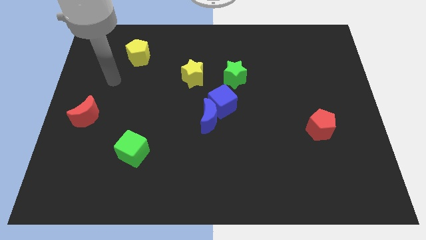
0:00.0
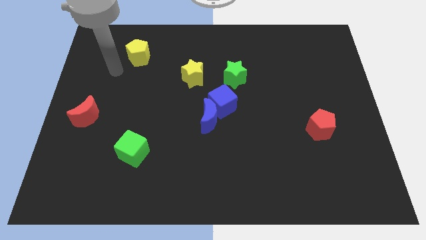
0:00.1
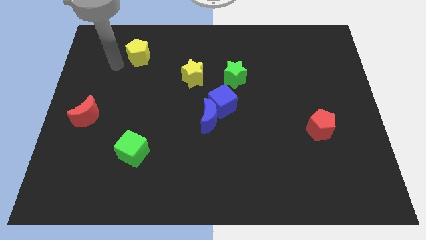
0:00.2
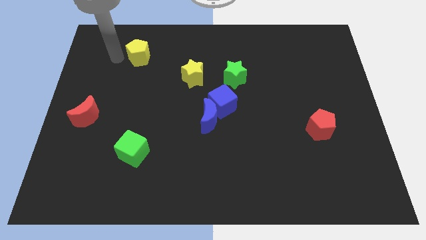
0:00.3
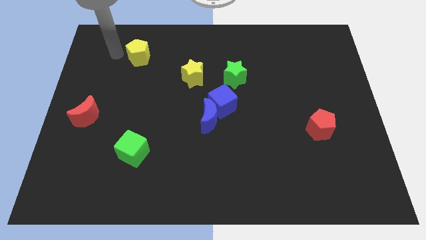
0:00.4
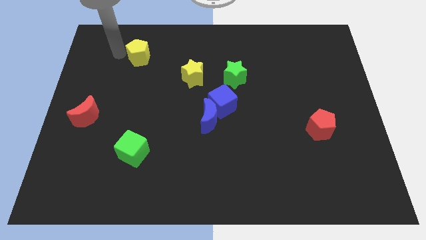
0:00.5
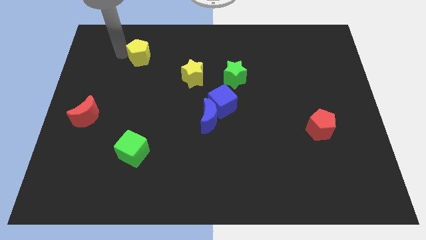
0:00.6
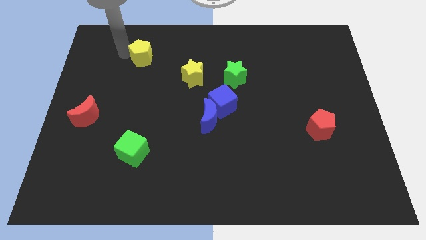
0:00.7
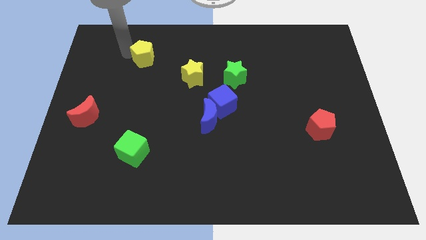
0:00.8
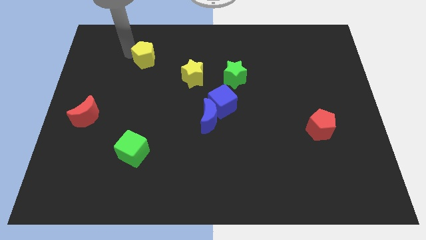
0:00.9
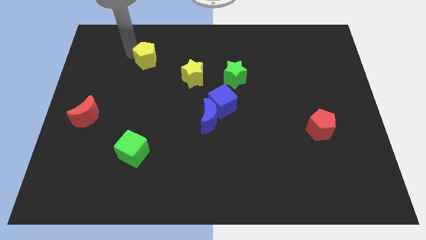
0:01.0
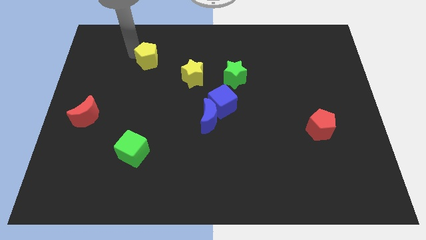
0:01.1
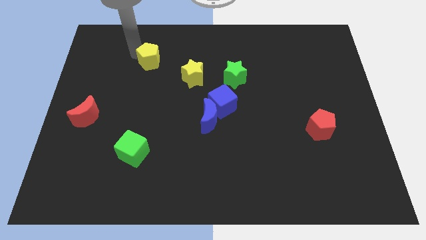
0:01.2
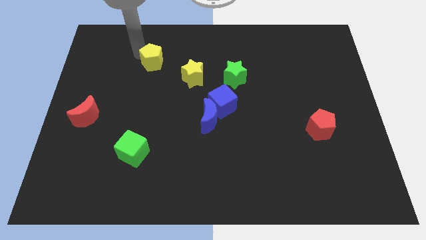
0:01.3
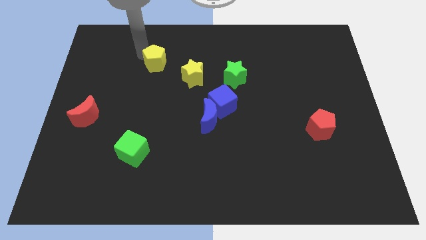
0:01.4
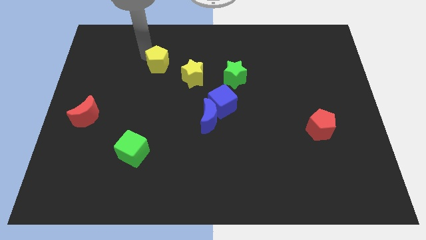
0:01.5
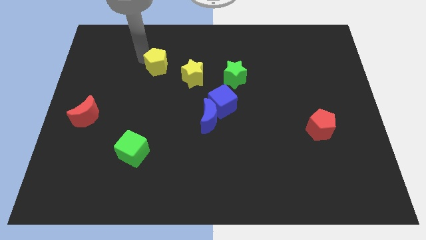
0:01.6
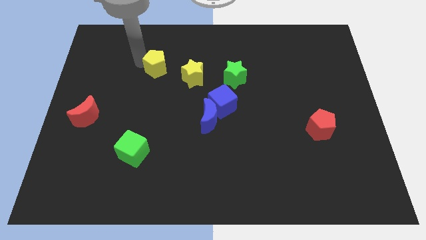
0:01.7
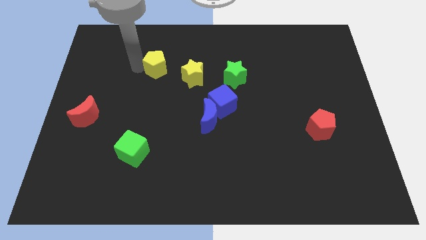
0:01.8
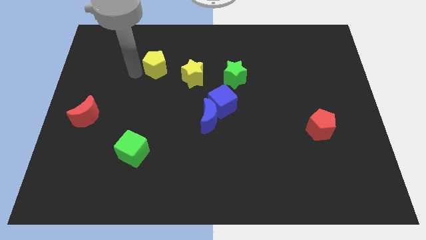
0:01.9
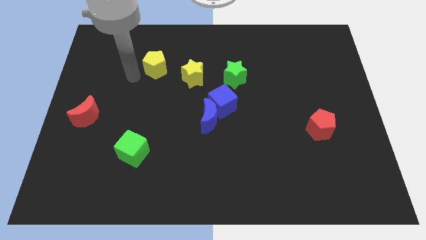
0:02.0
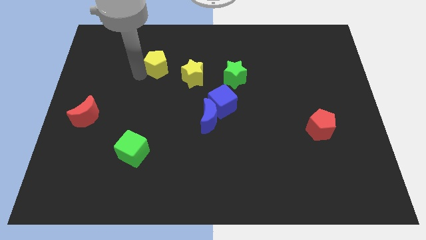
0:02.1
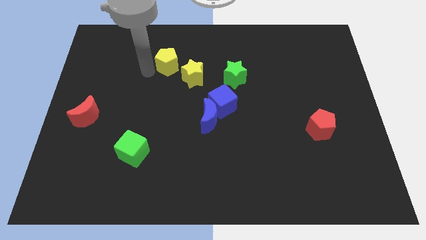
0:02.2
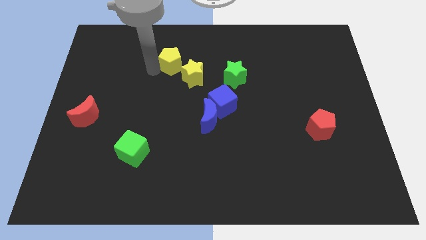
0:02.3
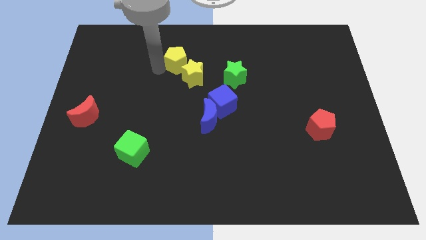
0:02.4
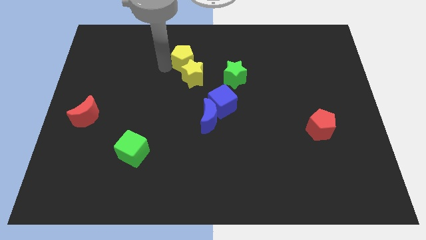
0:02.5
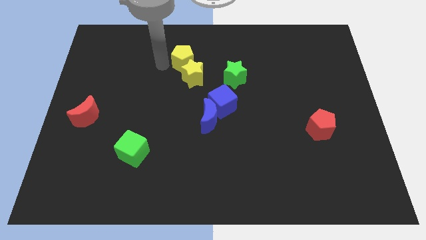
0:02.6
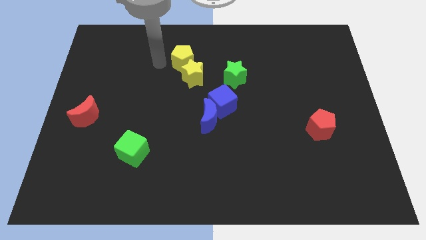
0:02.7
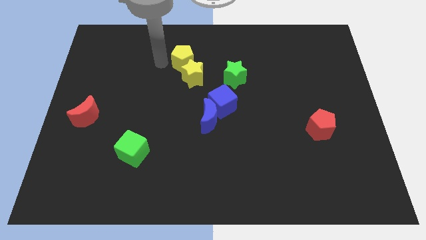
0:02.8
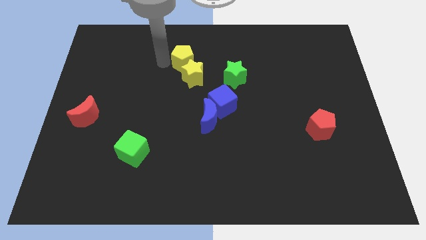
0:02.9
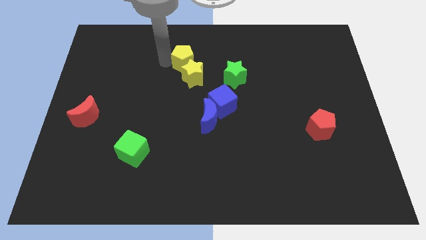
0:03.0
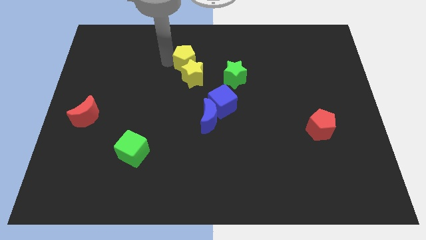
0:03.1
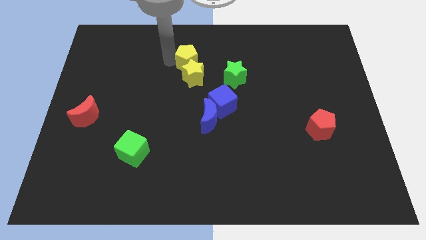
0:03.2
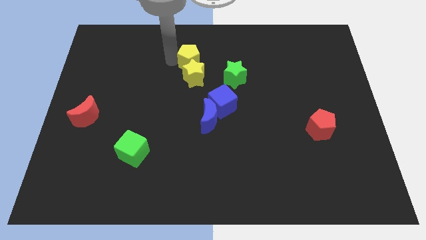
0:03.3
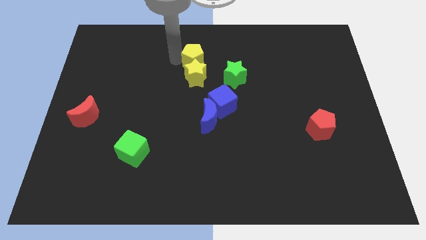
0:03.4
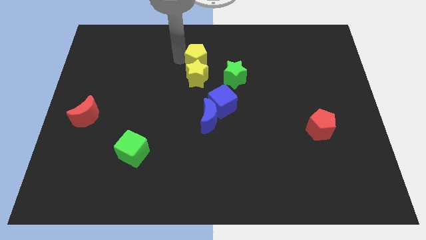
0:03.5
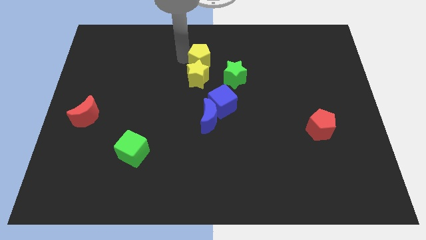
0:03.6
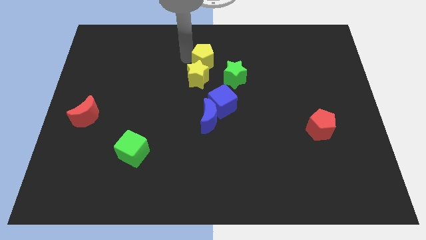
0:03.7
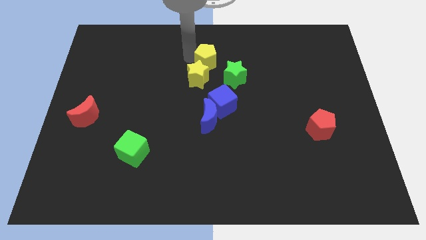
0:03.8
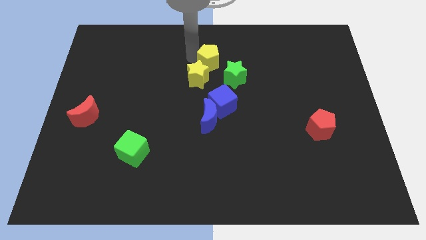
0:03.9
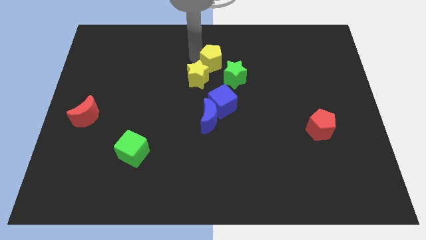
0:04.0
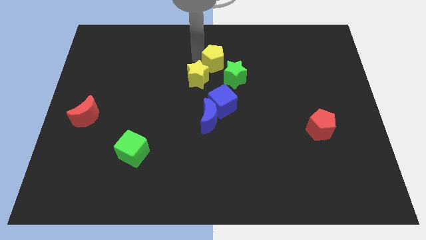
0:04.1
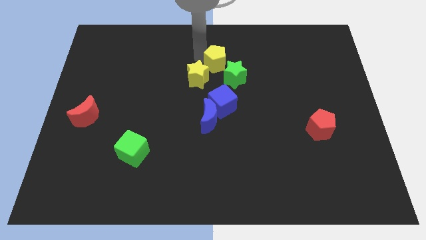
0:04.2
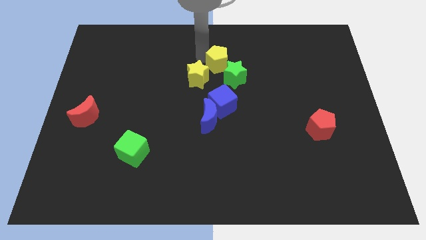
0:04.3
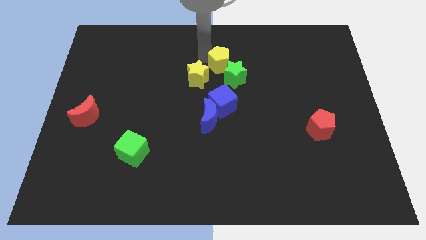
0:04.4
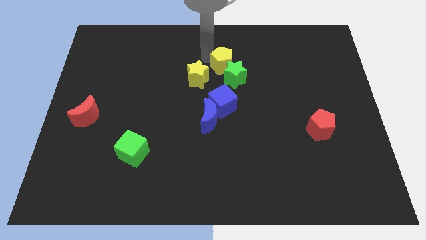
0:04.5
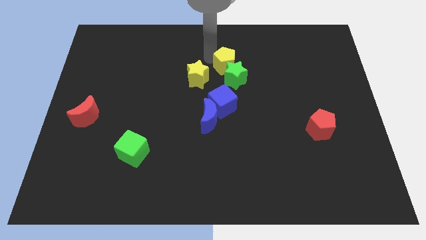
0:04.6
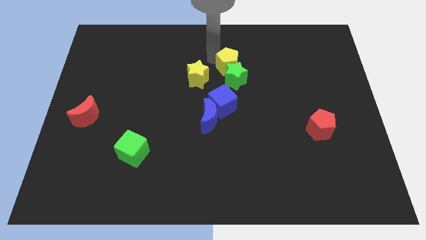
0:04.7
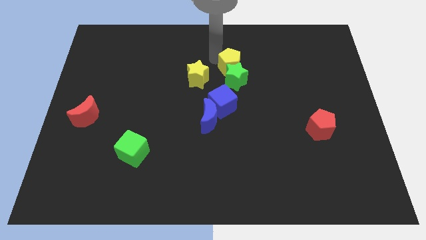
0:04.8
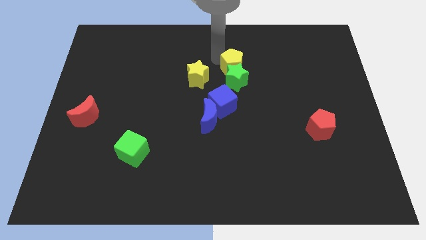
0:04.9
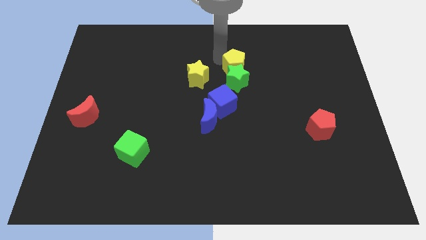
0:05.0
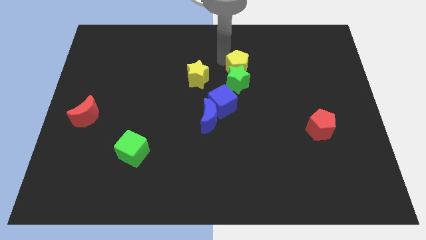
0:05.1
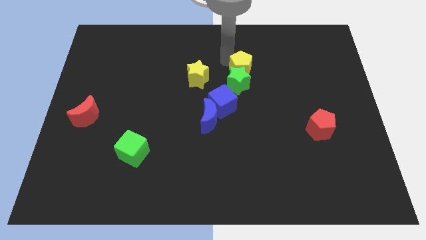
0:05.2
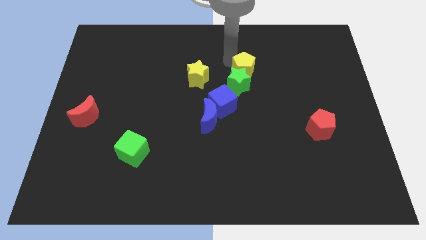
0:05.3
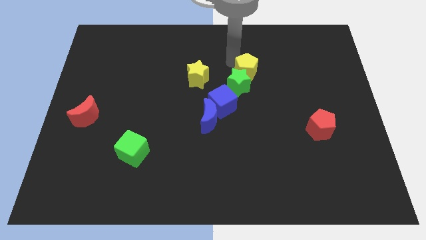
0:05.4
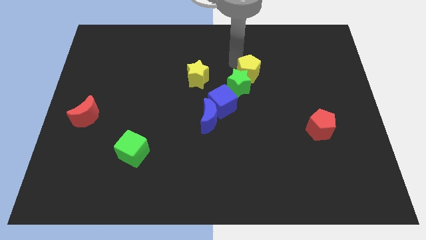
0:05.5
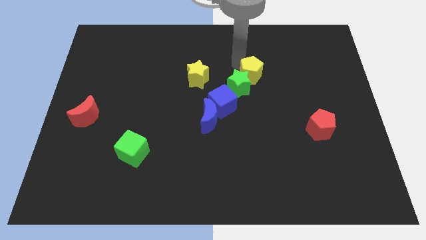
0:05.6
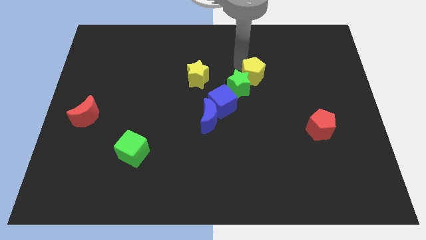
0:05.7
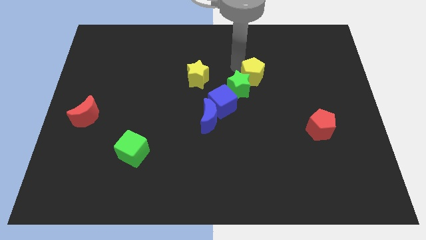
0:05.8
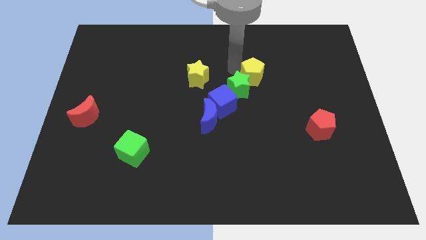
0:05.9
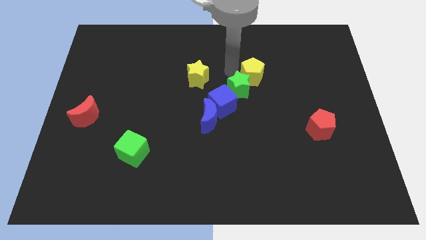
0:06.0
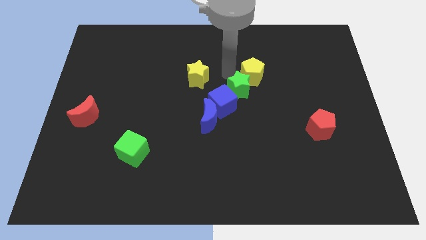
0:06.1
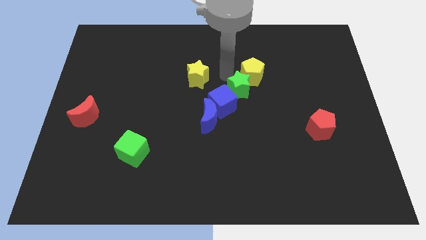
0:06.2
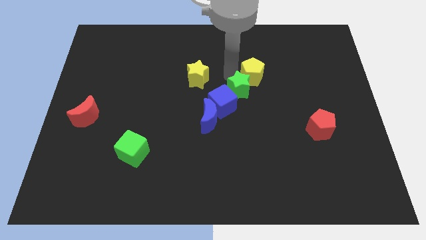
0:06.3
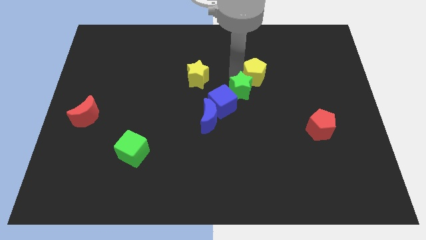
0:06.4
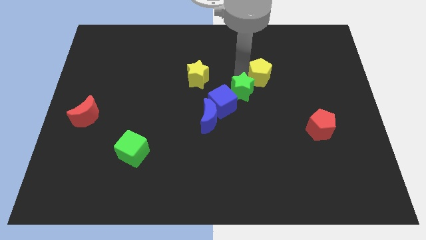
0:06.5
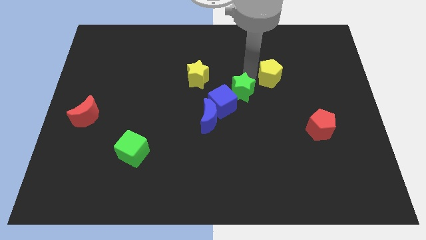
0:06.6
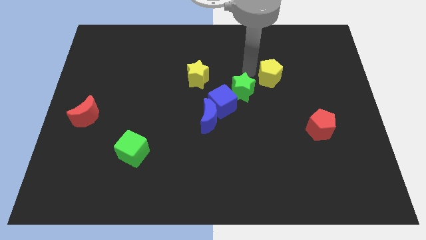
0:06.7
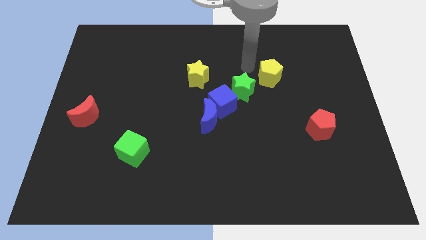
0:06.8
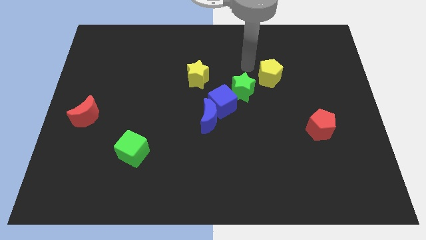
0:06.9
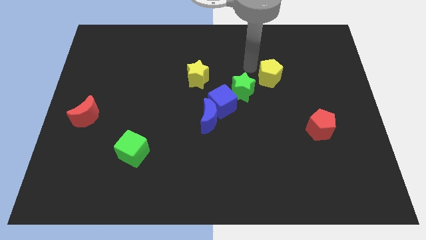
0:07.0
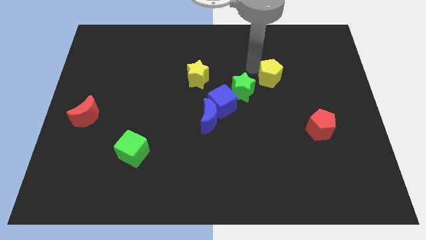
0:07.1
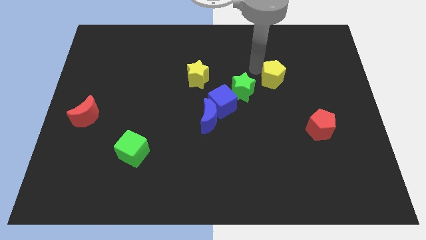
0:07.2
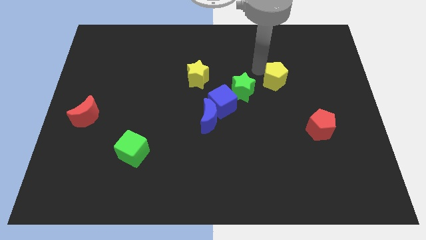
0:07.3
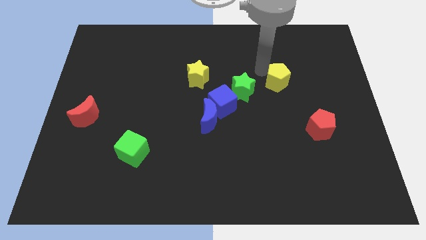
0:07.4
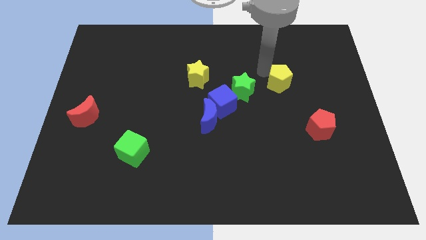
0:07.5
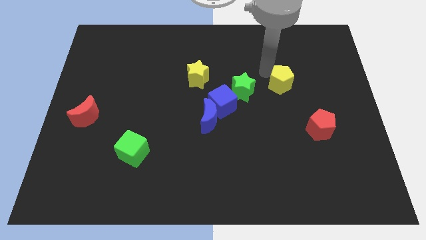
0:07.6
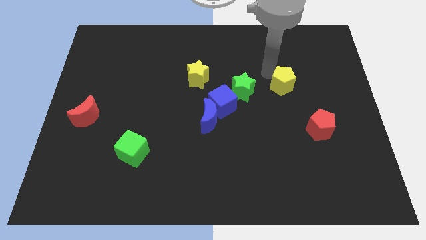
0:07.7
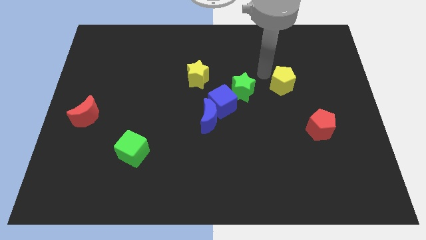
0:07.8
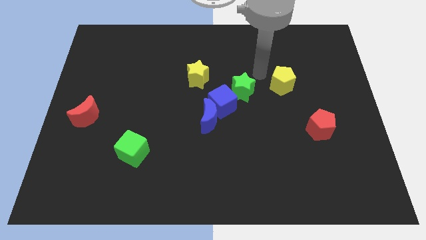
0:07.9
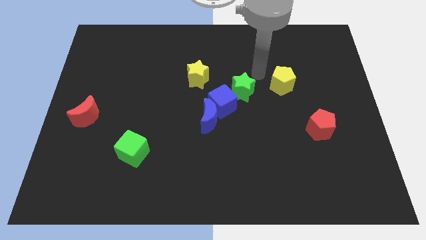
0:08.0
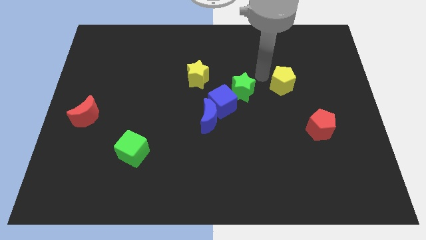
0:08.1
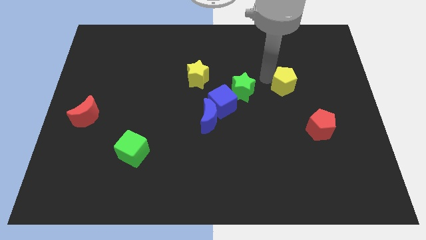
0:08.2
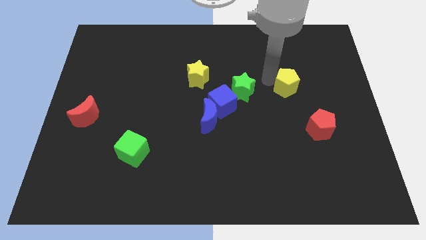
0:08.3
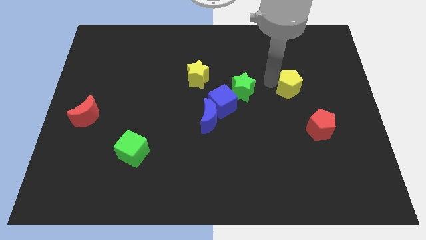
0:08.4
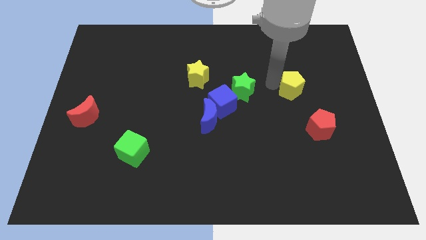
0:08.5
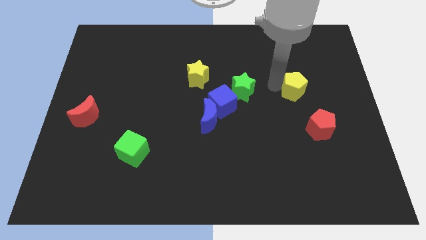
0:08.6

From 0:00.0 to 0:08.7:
slide the yellow pentagon to the top side of the red pentagon
